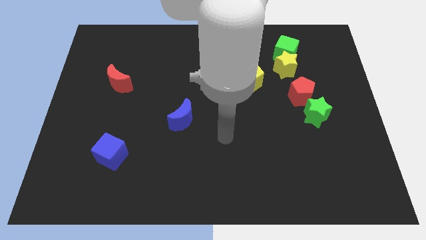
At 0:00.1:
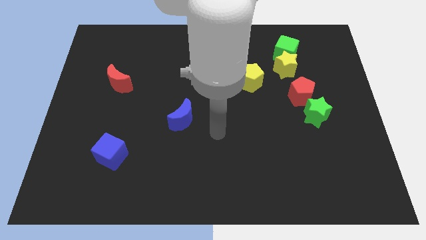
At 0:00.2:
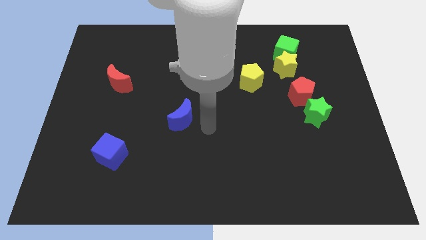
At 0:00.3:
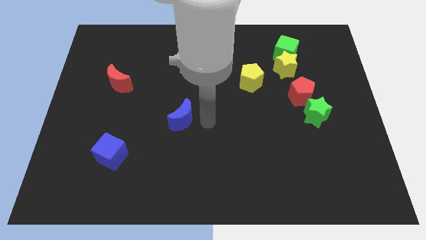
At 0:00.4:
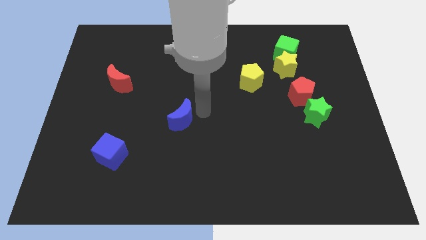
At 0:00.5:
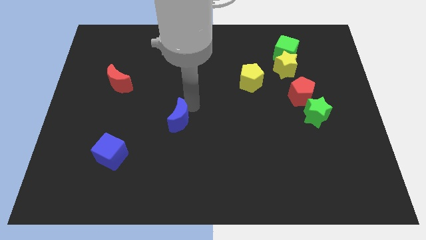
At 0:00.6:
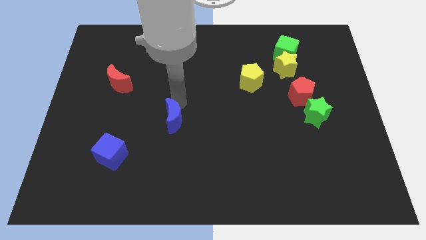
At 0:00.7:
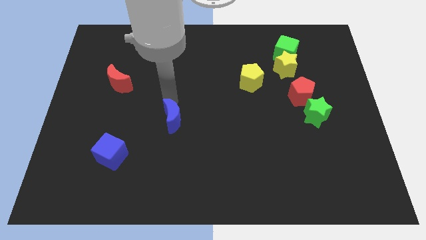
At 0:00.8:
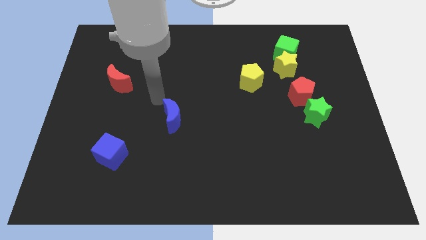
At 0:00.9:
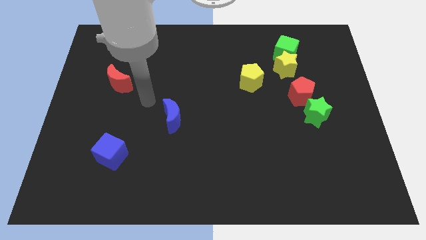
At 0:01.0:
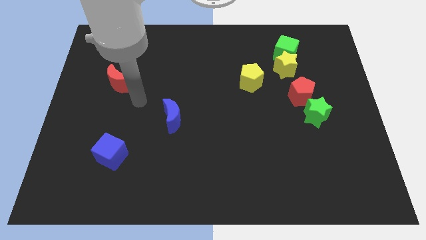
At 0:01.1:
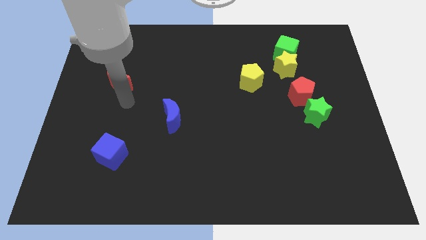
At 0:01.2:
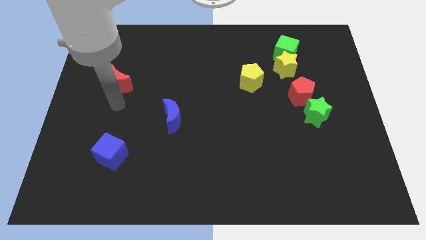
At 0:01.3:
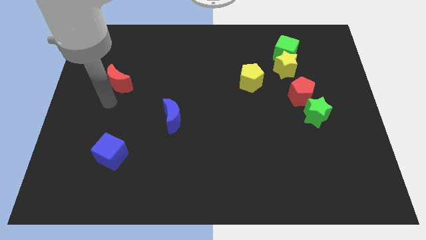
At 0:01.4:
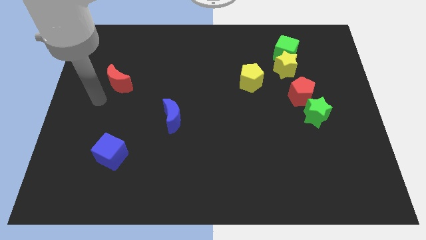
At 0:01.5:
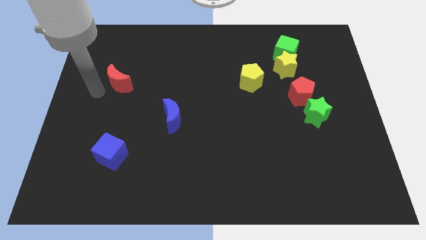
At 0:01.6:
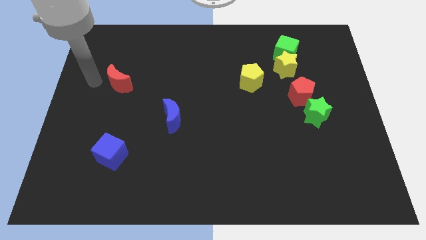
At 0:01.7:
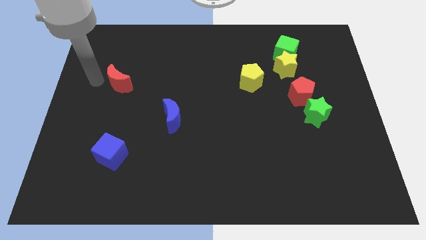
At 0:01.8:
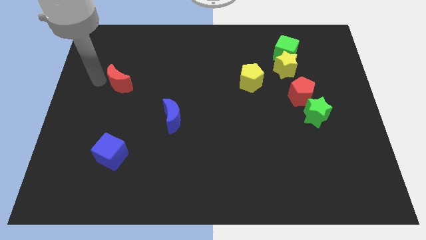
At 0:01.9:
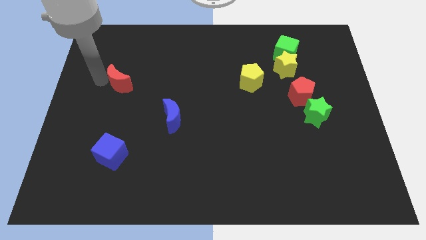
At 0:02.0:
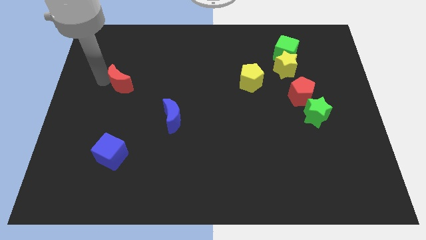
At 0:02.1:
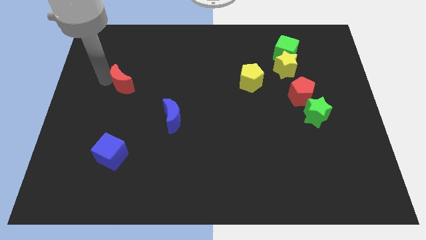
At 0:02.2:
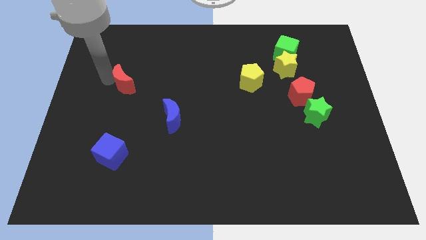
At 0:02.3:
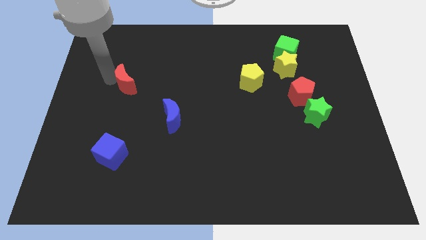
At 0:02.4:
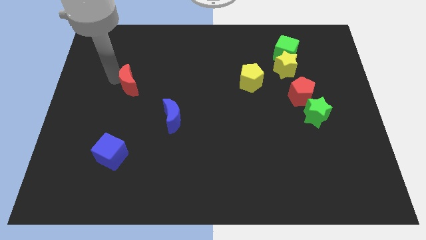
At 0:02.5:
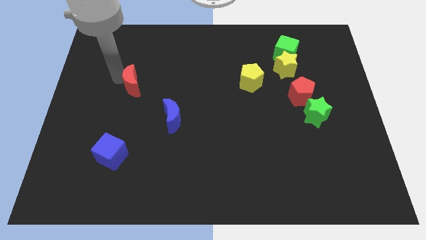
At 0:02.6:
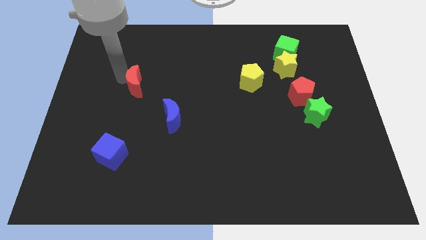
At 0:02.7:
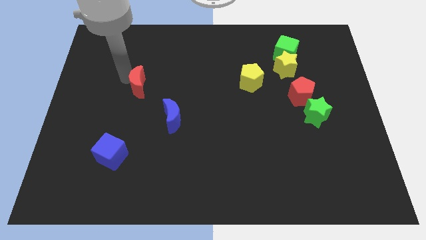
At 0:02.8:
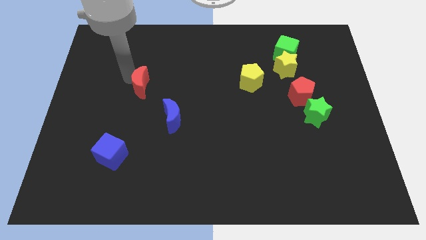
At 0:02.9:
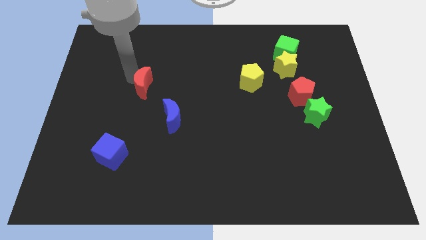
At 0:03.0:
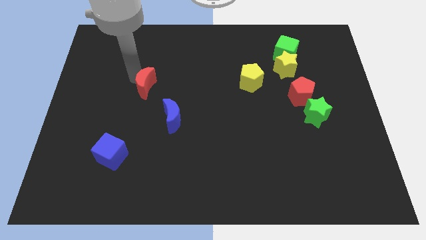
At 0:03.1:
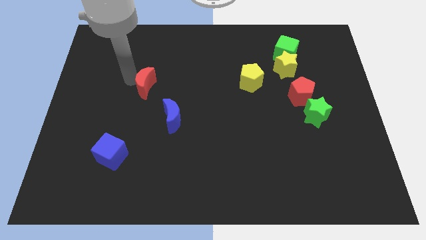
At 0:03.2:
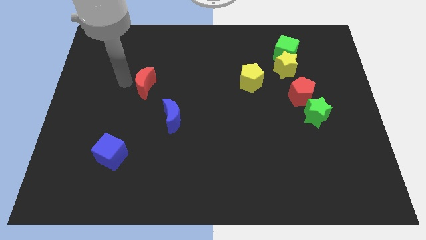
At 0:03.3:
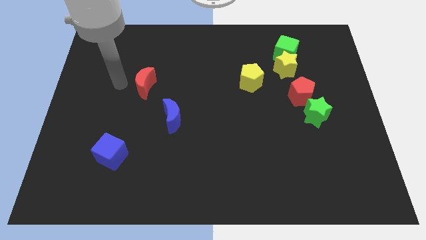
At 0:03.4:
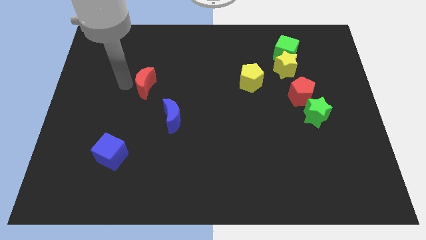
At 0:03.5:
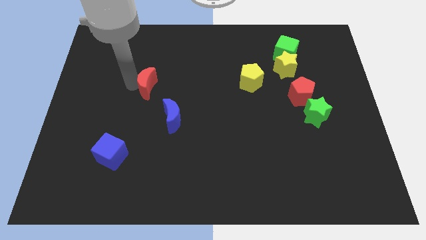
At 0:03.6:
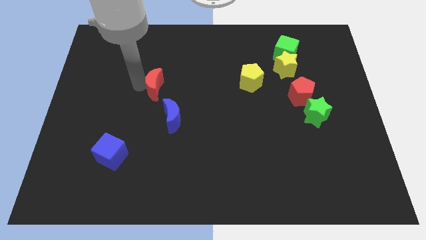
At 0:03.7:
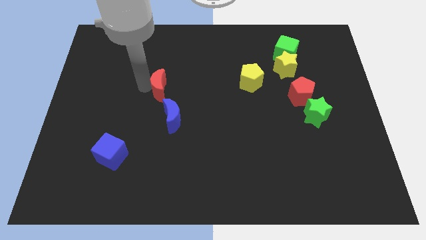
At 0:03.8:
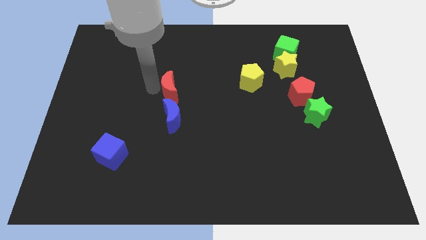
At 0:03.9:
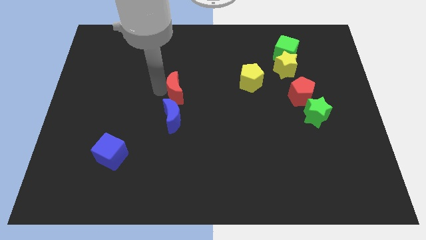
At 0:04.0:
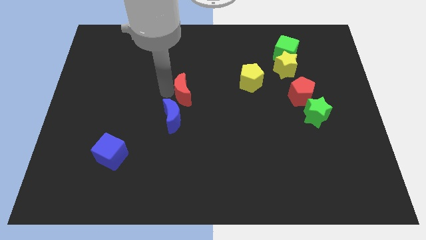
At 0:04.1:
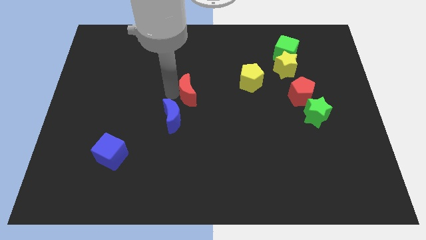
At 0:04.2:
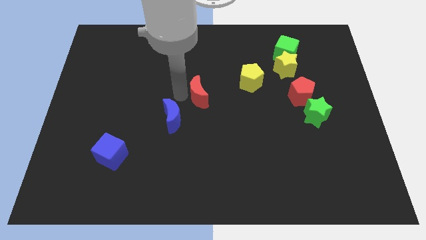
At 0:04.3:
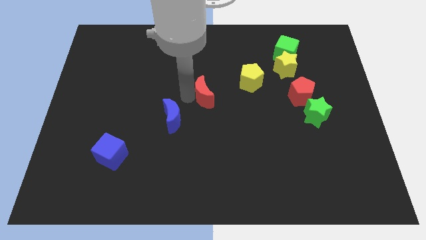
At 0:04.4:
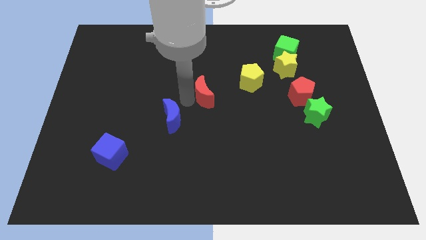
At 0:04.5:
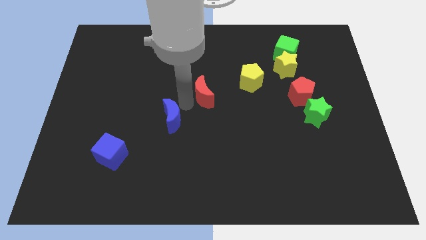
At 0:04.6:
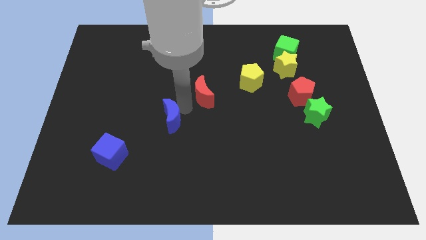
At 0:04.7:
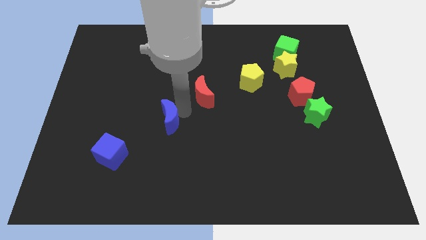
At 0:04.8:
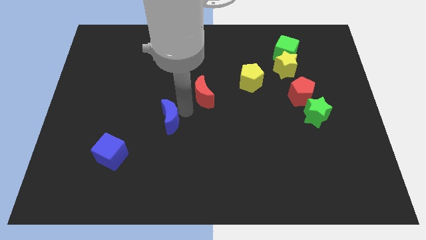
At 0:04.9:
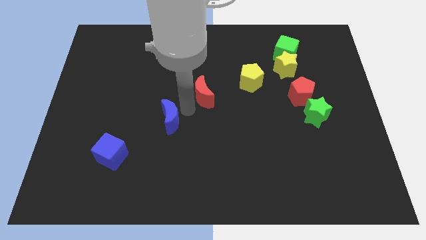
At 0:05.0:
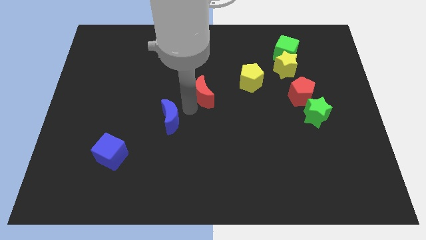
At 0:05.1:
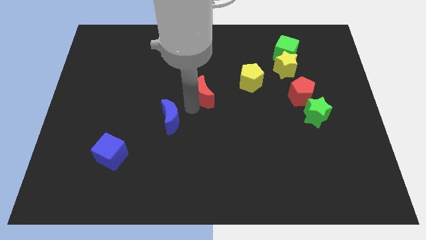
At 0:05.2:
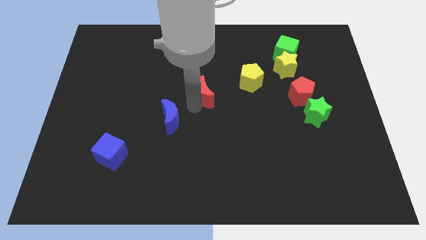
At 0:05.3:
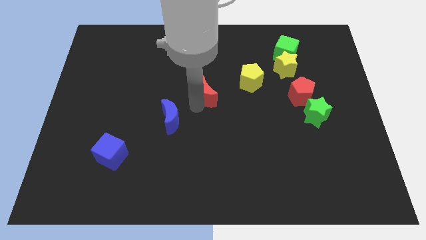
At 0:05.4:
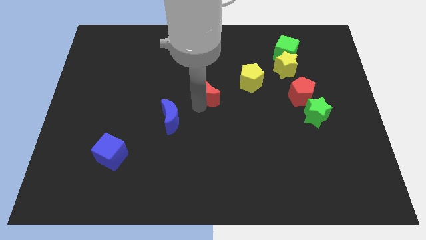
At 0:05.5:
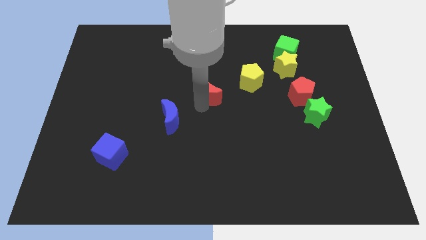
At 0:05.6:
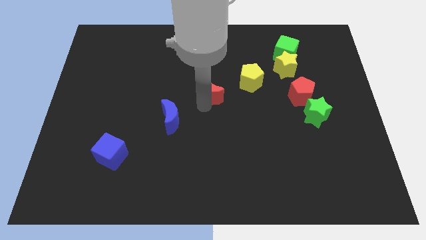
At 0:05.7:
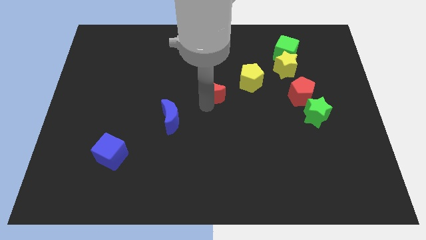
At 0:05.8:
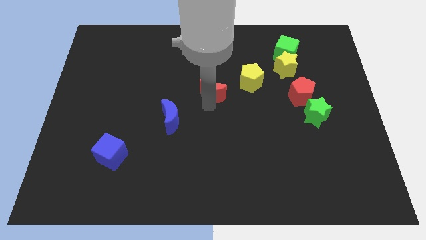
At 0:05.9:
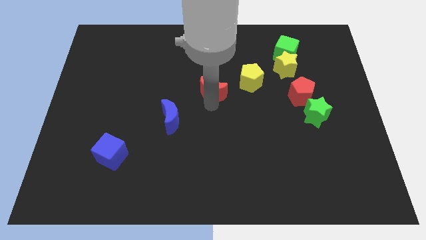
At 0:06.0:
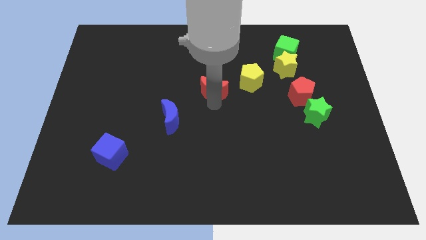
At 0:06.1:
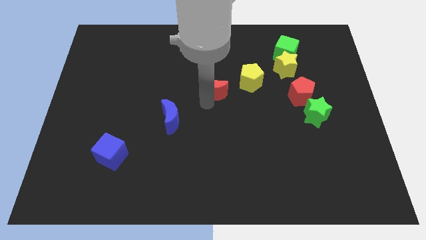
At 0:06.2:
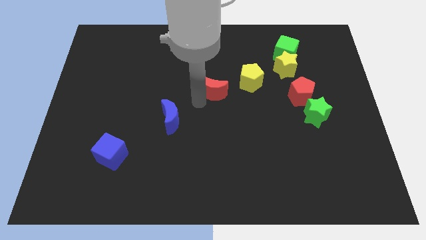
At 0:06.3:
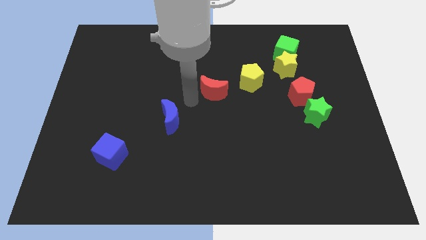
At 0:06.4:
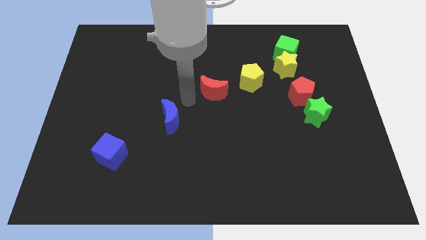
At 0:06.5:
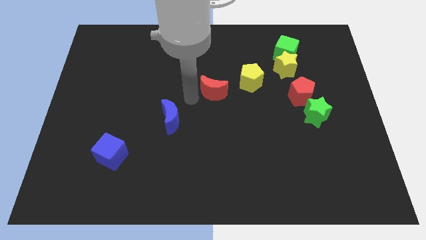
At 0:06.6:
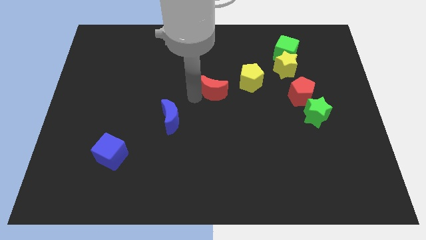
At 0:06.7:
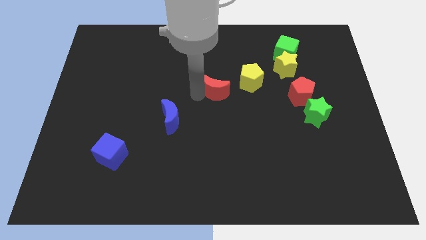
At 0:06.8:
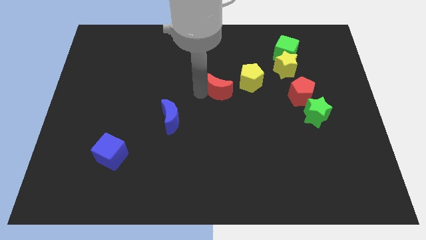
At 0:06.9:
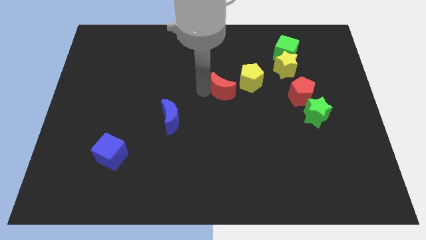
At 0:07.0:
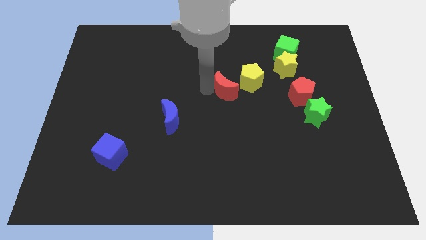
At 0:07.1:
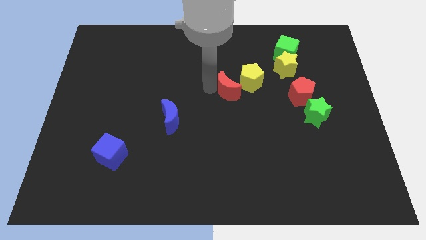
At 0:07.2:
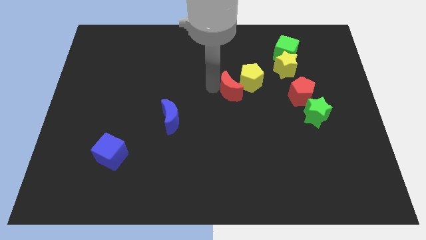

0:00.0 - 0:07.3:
move the red moon close to the yellow pentagon

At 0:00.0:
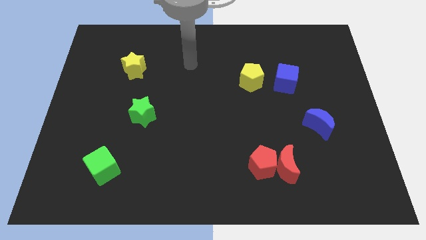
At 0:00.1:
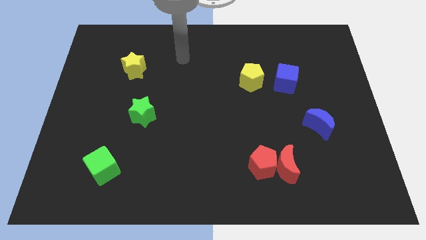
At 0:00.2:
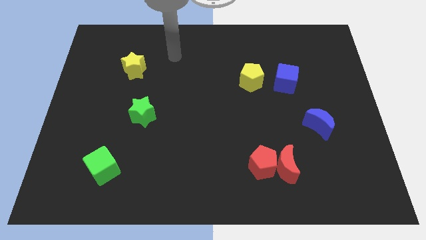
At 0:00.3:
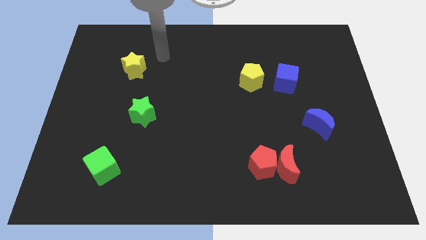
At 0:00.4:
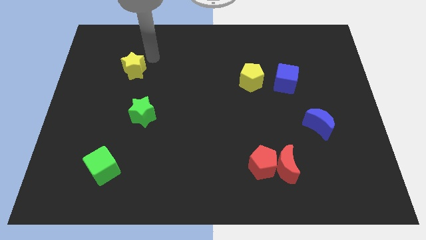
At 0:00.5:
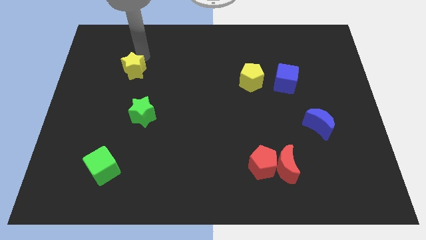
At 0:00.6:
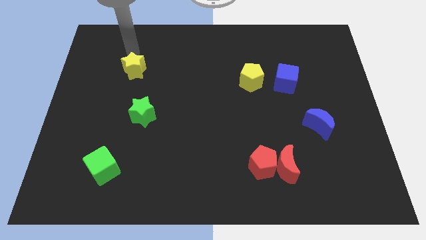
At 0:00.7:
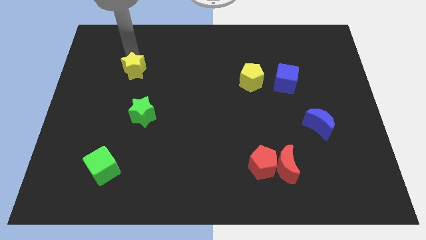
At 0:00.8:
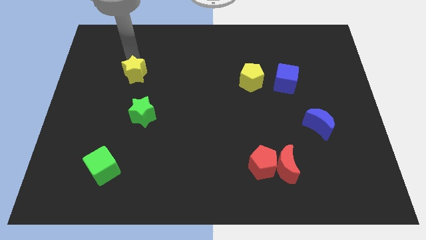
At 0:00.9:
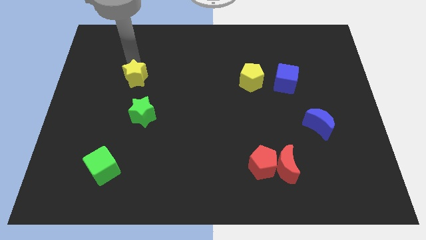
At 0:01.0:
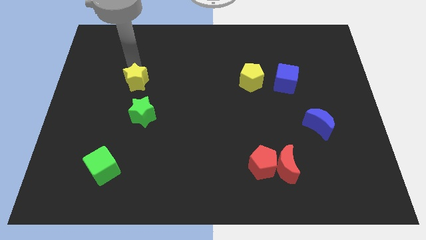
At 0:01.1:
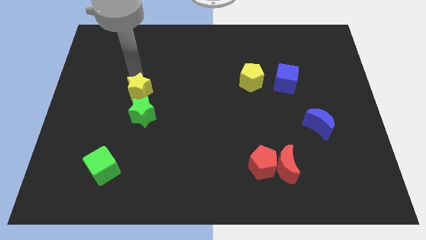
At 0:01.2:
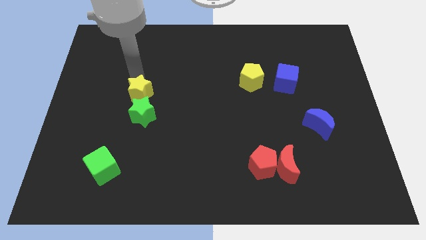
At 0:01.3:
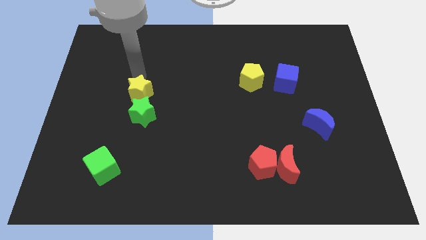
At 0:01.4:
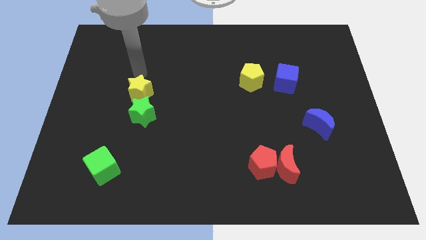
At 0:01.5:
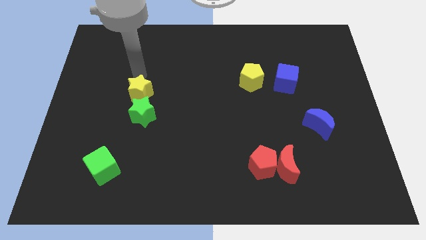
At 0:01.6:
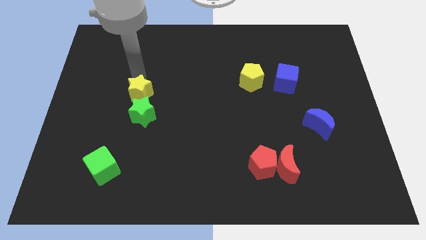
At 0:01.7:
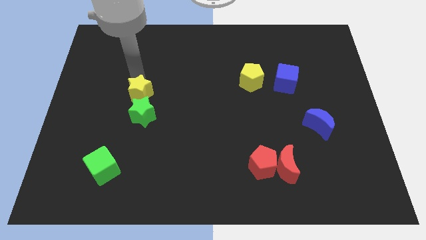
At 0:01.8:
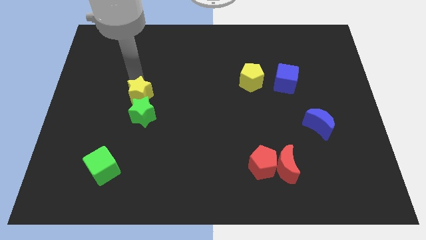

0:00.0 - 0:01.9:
put the yellow star towards the green star
